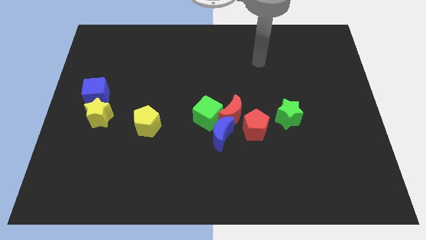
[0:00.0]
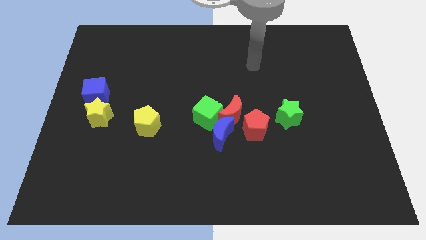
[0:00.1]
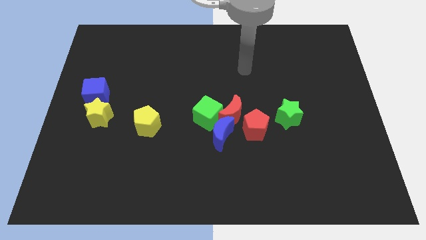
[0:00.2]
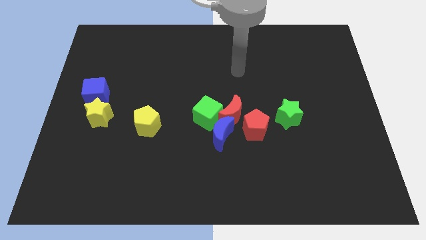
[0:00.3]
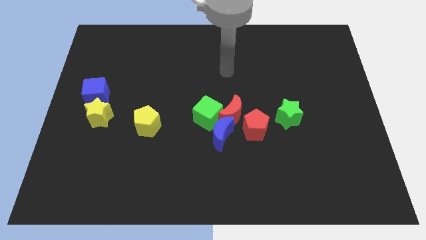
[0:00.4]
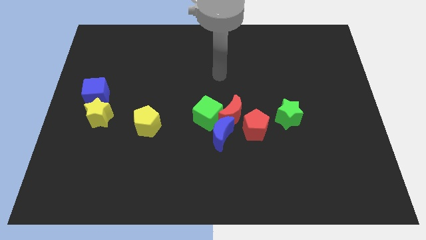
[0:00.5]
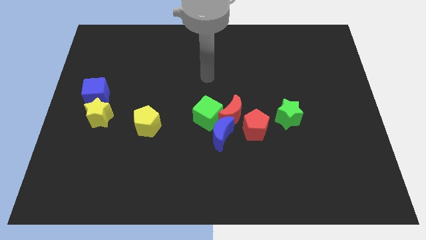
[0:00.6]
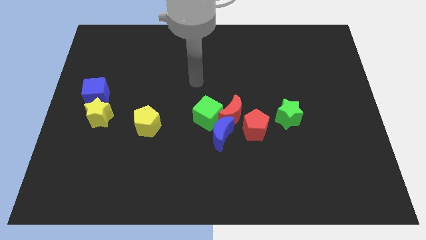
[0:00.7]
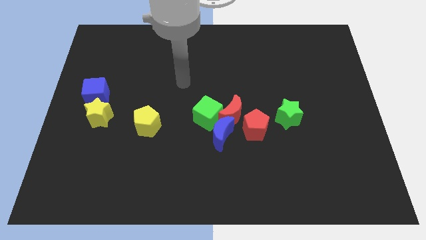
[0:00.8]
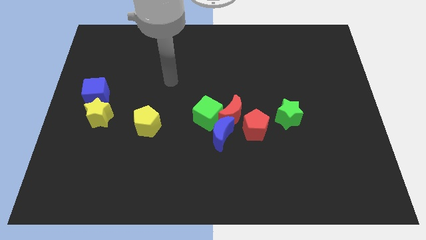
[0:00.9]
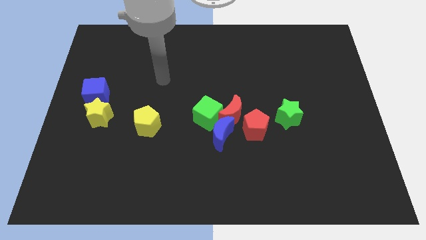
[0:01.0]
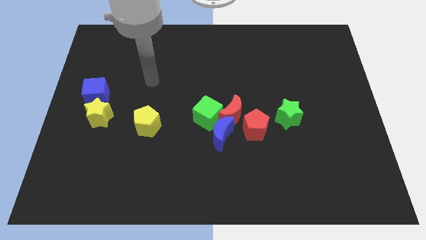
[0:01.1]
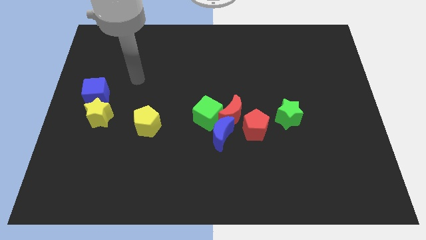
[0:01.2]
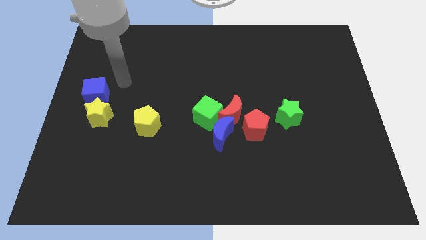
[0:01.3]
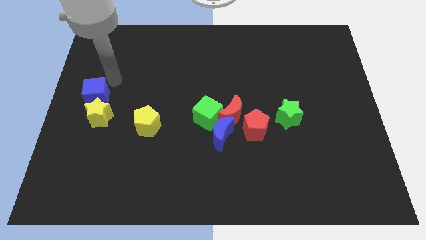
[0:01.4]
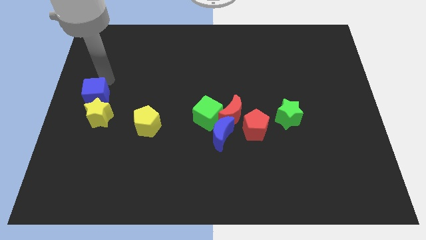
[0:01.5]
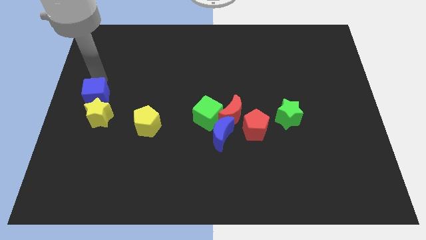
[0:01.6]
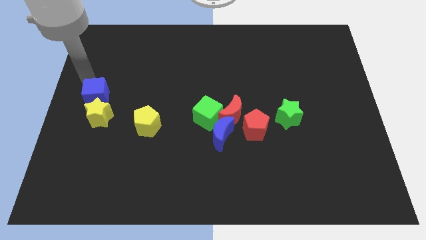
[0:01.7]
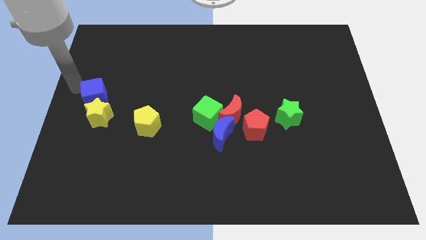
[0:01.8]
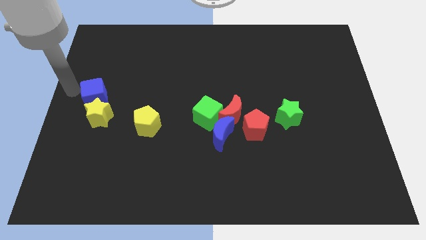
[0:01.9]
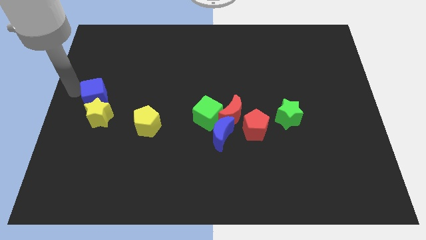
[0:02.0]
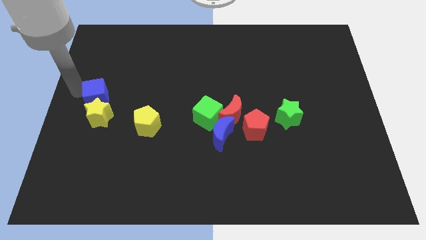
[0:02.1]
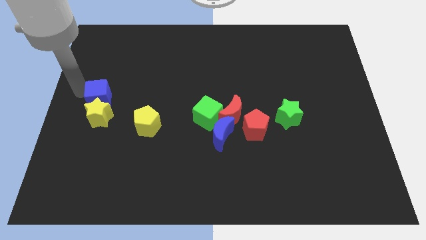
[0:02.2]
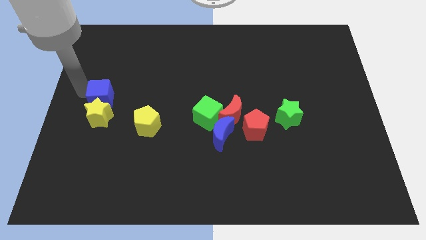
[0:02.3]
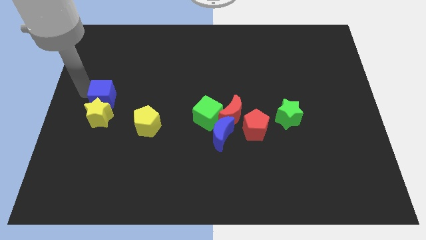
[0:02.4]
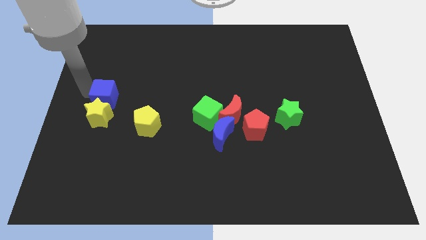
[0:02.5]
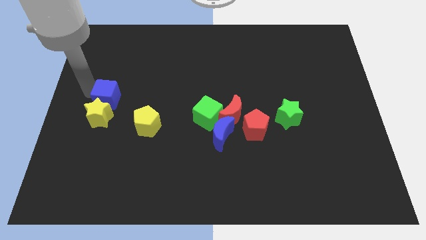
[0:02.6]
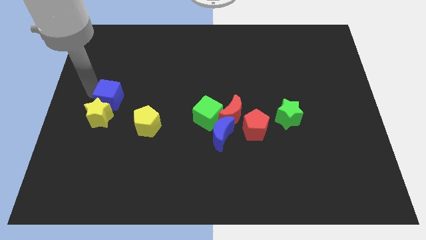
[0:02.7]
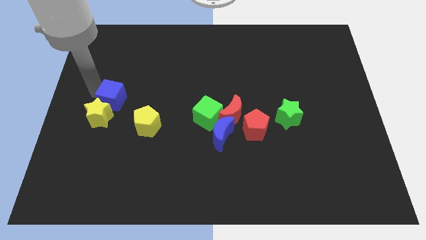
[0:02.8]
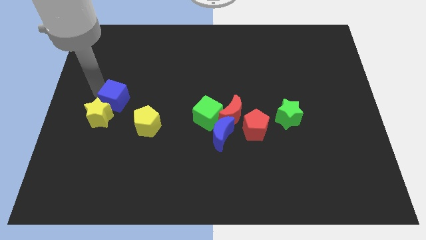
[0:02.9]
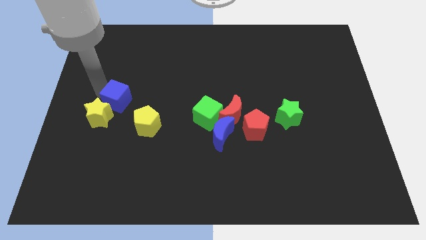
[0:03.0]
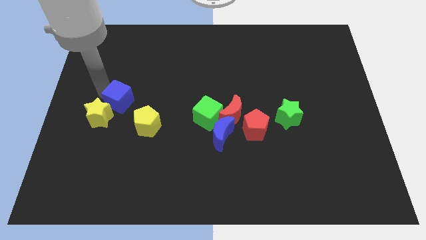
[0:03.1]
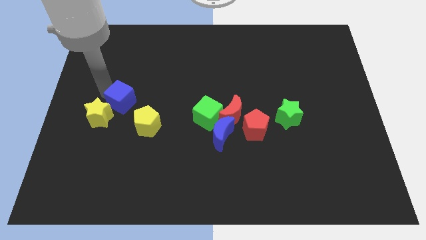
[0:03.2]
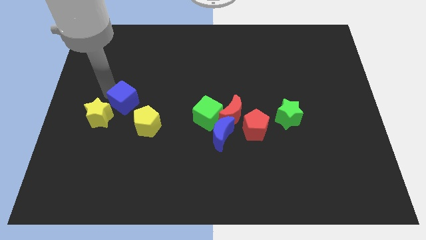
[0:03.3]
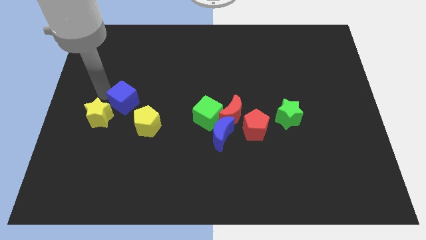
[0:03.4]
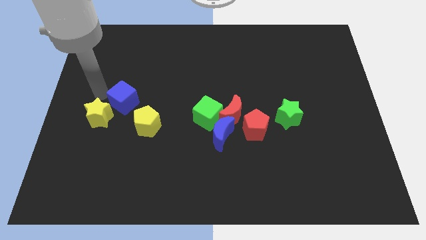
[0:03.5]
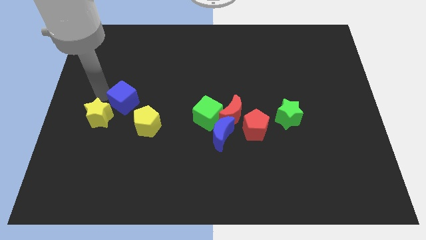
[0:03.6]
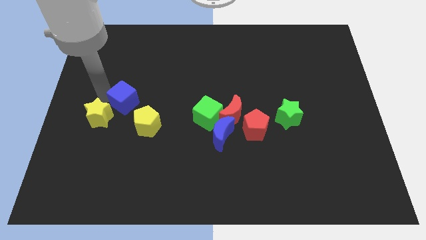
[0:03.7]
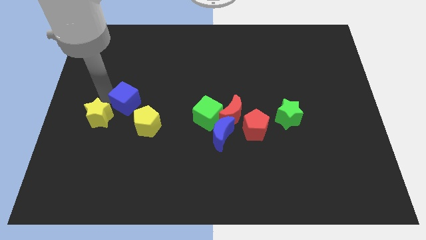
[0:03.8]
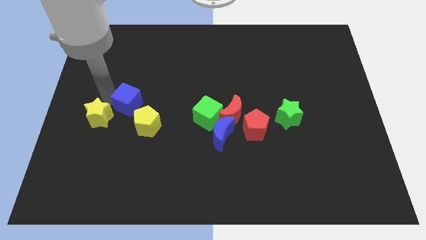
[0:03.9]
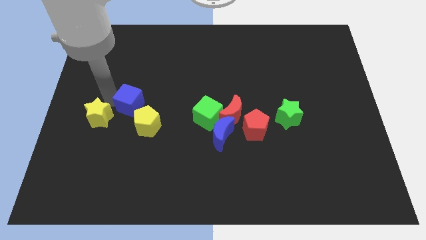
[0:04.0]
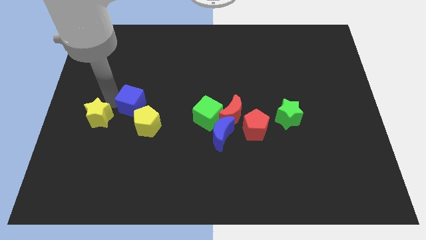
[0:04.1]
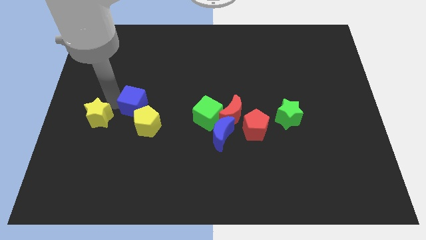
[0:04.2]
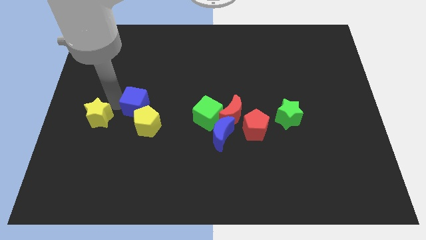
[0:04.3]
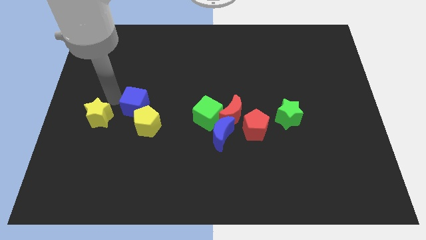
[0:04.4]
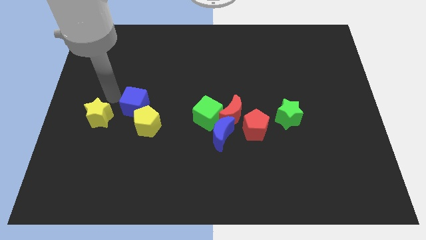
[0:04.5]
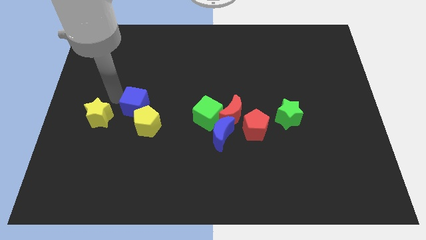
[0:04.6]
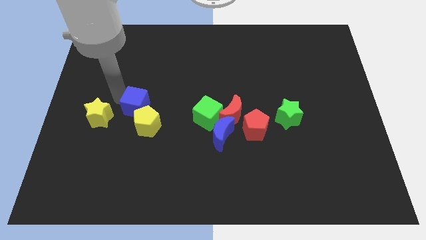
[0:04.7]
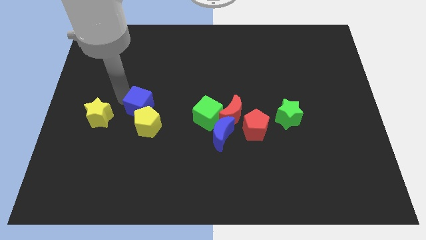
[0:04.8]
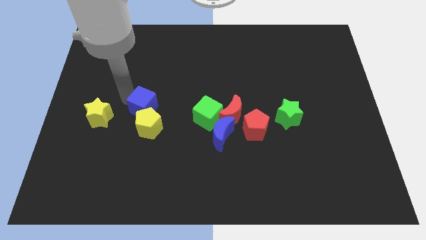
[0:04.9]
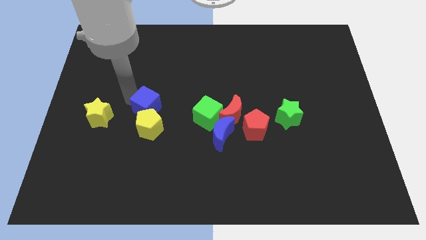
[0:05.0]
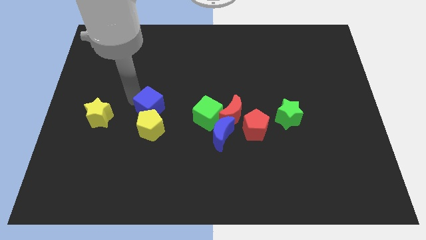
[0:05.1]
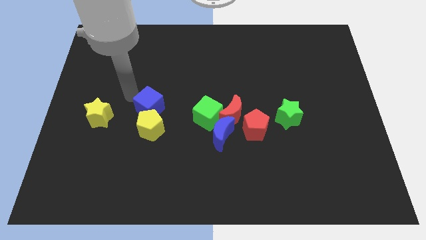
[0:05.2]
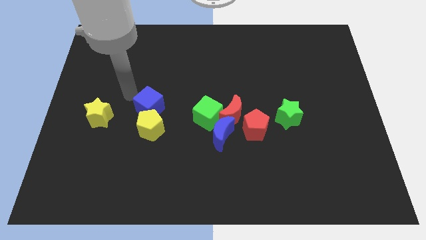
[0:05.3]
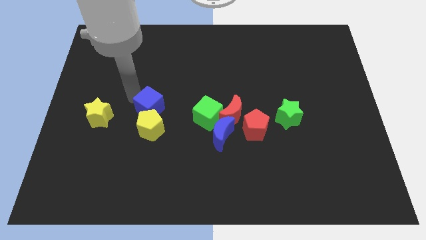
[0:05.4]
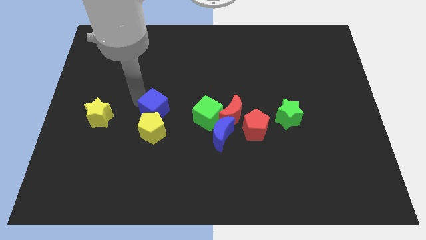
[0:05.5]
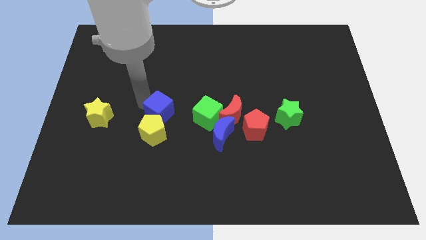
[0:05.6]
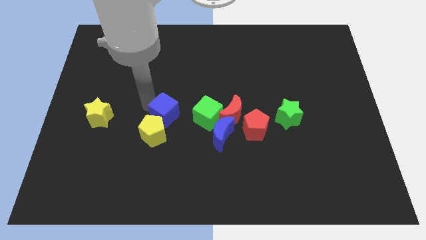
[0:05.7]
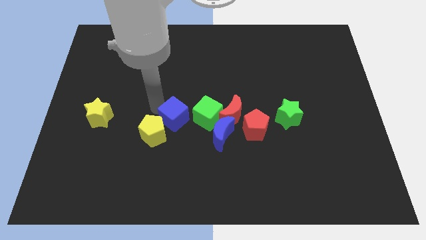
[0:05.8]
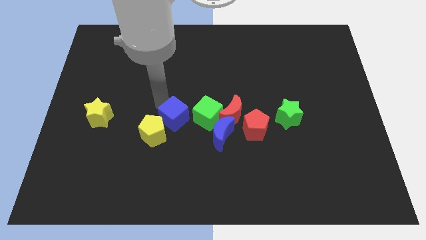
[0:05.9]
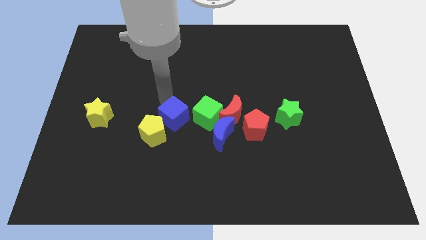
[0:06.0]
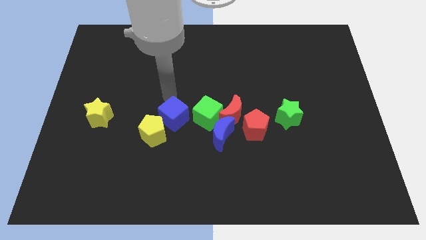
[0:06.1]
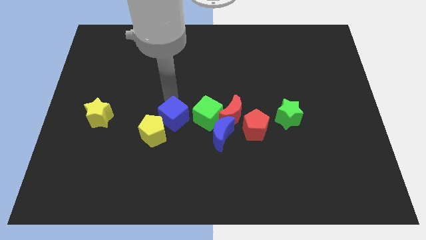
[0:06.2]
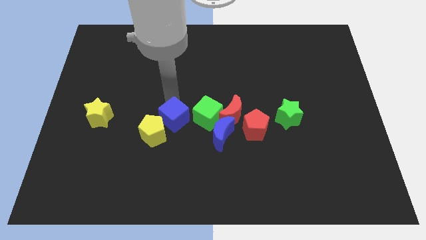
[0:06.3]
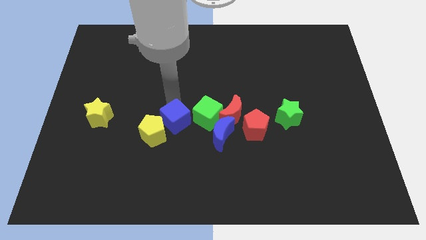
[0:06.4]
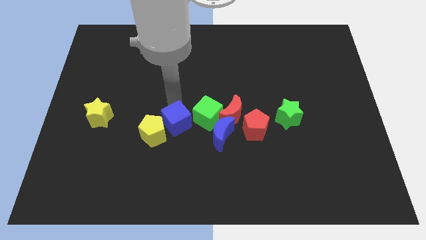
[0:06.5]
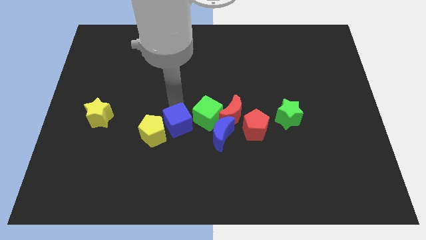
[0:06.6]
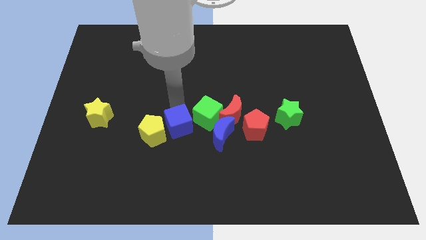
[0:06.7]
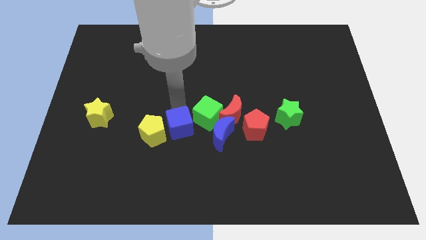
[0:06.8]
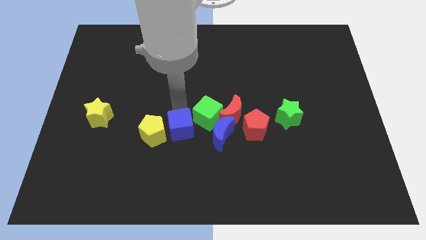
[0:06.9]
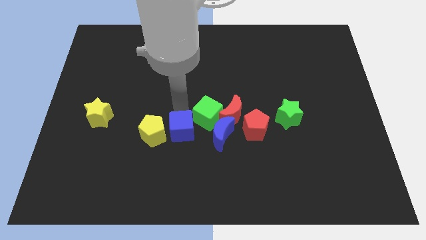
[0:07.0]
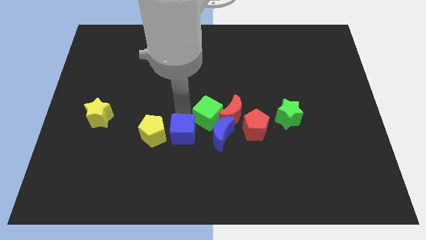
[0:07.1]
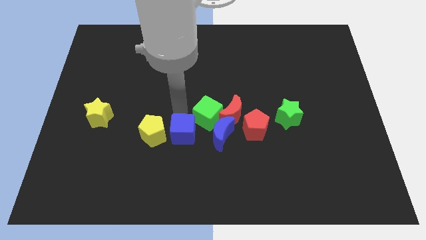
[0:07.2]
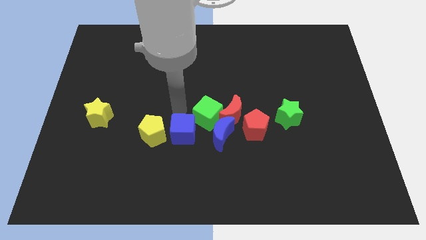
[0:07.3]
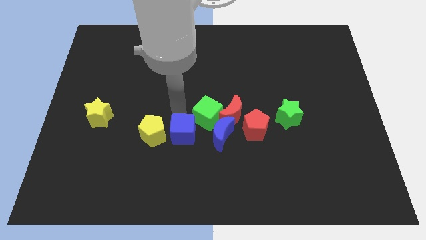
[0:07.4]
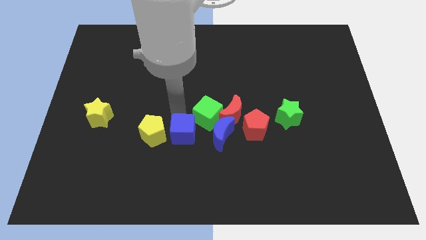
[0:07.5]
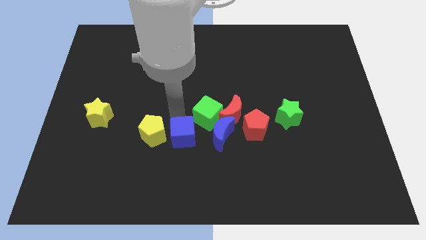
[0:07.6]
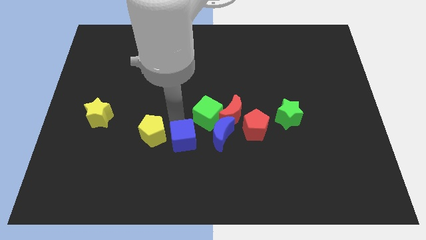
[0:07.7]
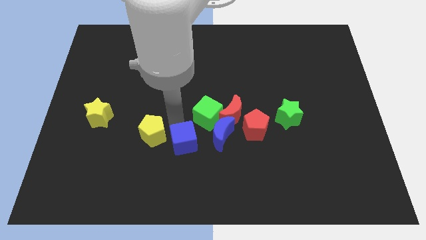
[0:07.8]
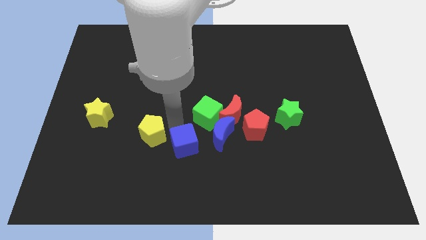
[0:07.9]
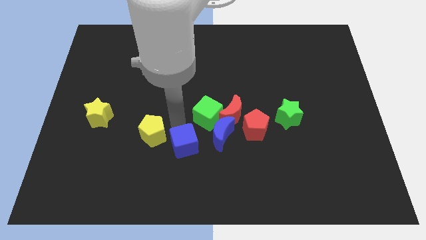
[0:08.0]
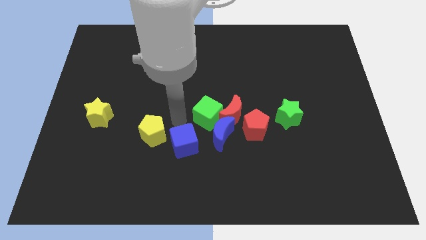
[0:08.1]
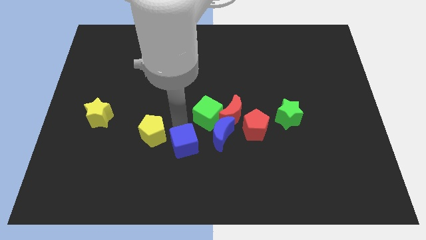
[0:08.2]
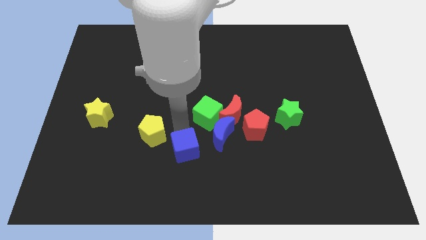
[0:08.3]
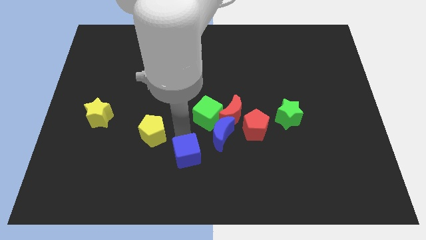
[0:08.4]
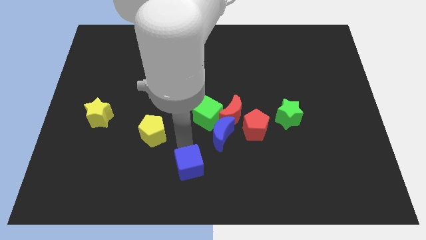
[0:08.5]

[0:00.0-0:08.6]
slide the blue cube to the bottom
